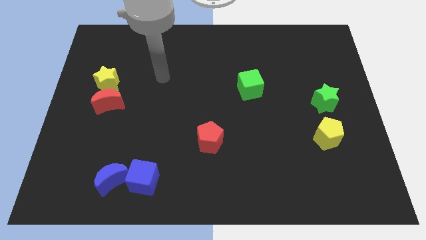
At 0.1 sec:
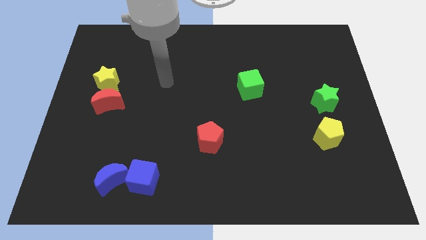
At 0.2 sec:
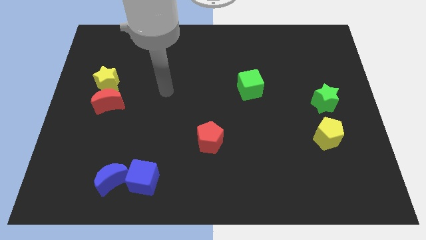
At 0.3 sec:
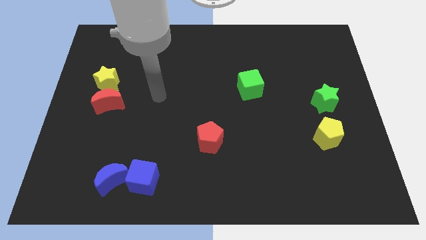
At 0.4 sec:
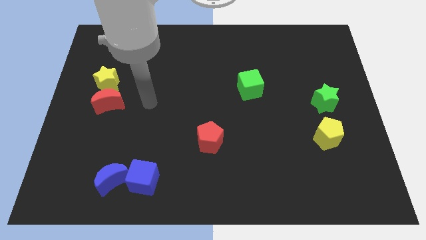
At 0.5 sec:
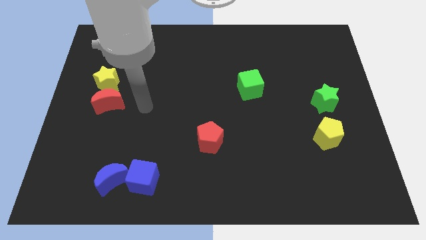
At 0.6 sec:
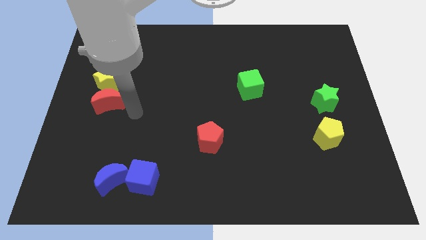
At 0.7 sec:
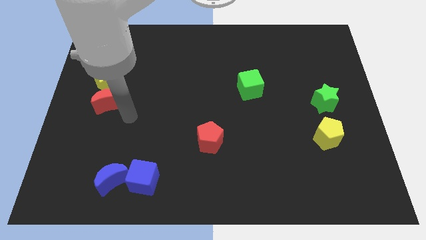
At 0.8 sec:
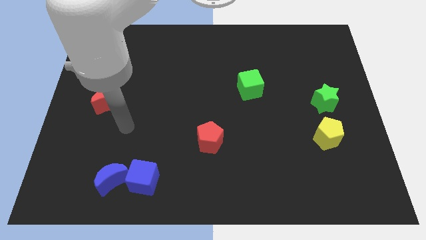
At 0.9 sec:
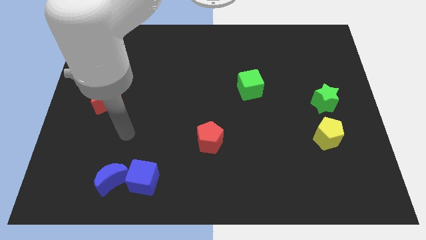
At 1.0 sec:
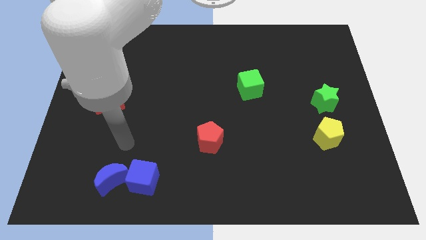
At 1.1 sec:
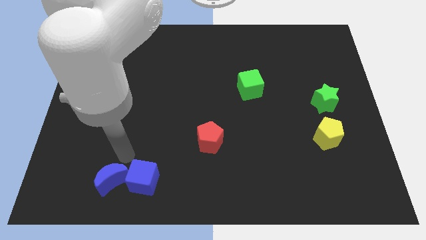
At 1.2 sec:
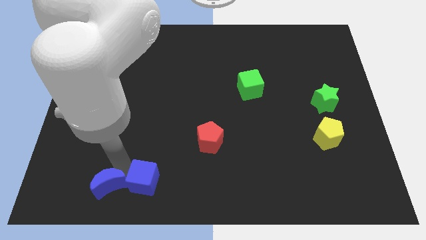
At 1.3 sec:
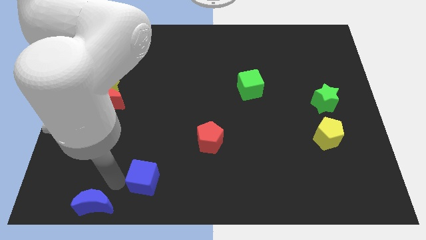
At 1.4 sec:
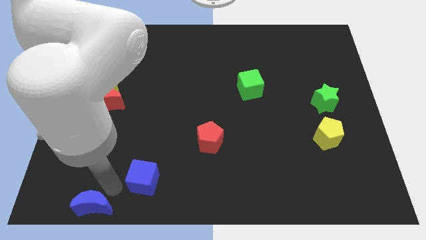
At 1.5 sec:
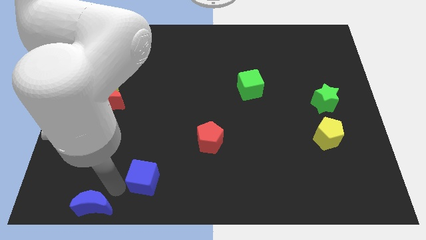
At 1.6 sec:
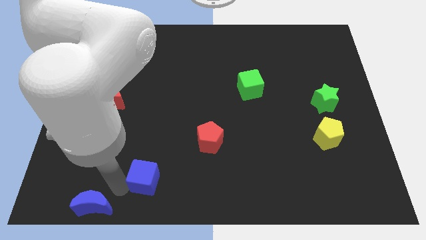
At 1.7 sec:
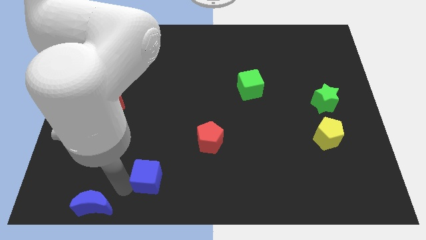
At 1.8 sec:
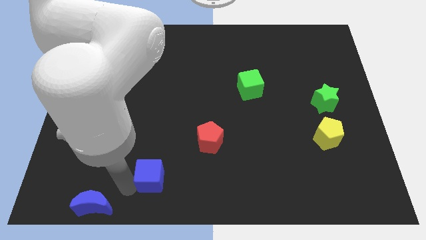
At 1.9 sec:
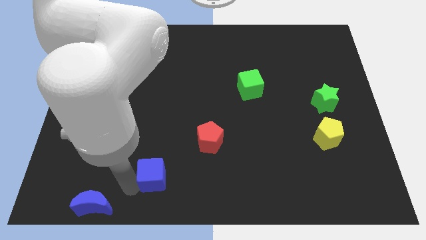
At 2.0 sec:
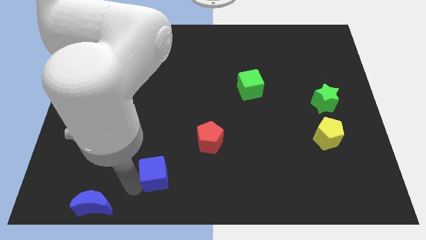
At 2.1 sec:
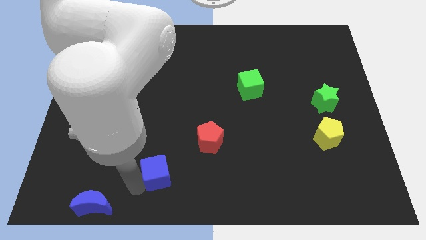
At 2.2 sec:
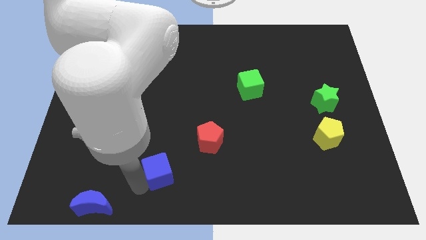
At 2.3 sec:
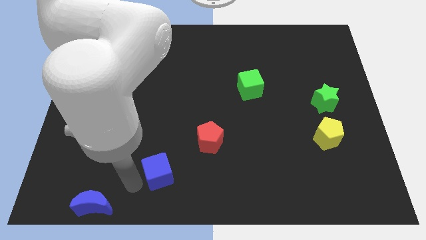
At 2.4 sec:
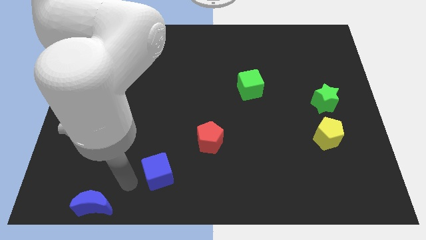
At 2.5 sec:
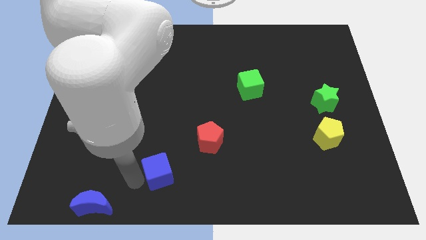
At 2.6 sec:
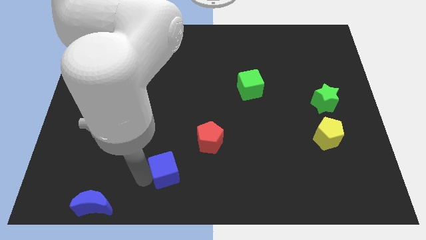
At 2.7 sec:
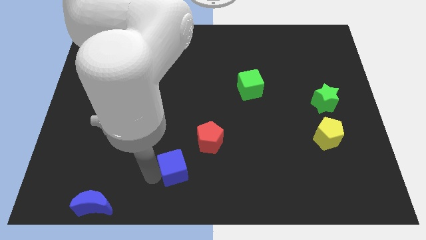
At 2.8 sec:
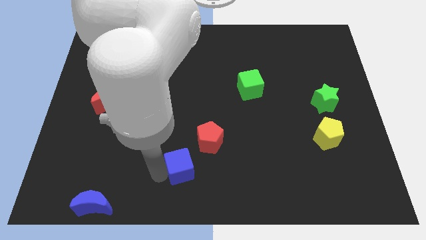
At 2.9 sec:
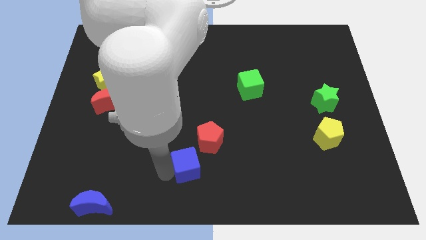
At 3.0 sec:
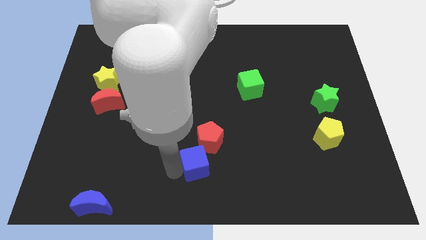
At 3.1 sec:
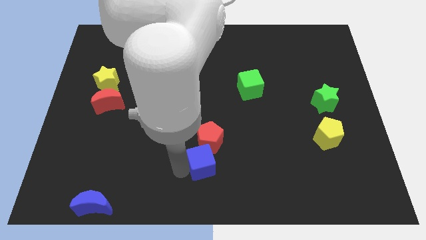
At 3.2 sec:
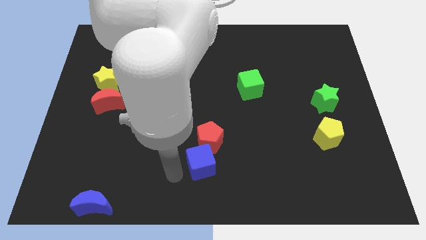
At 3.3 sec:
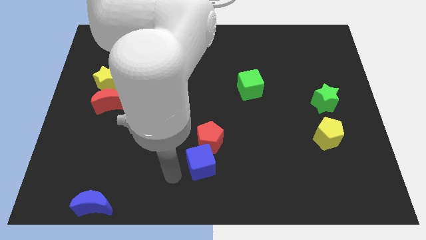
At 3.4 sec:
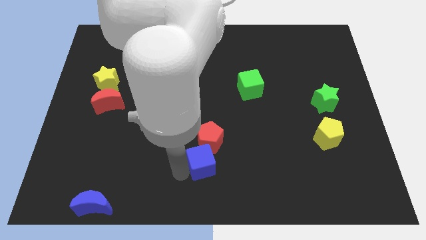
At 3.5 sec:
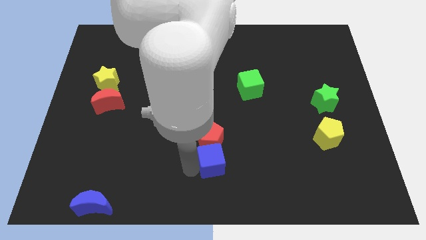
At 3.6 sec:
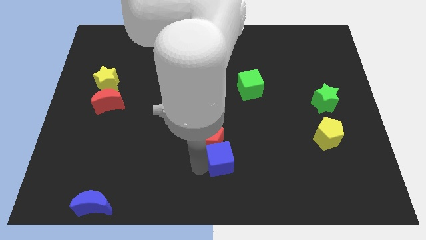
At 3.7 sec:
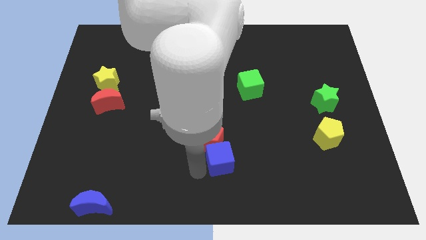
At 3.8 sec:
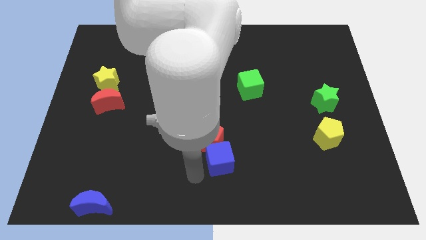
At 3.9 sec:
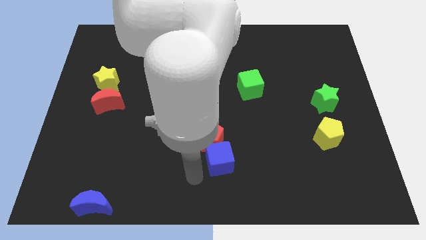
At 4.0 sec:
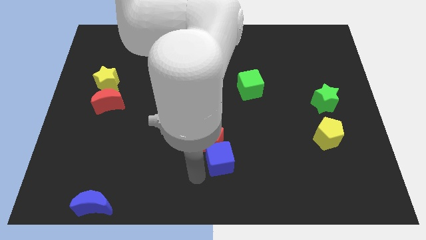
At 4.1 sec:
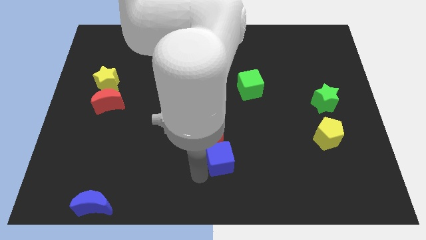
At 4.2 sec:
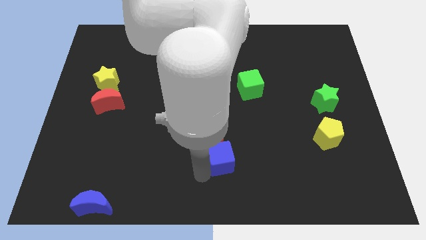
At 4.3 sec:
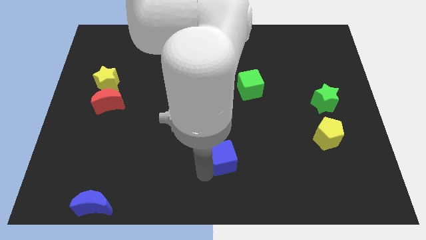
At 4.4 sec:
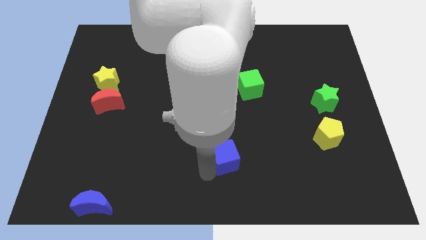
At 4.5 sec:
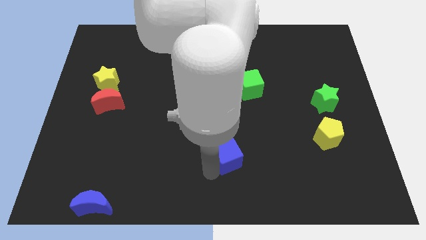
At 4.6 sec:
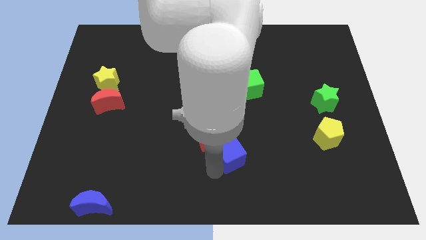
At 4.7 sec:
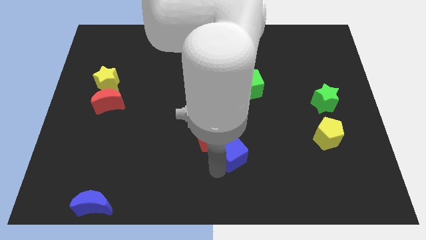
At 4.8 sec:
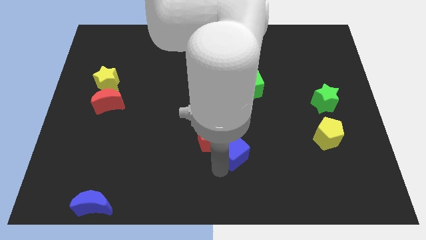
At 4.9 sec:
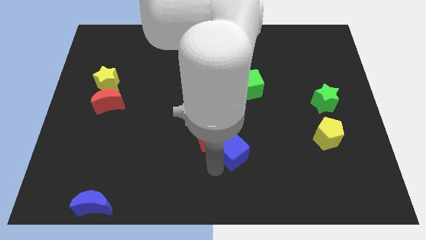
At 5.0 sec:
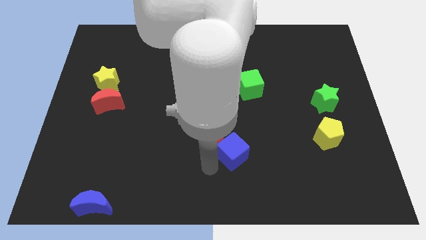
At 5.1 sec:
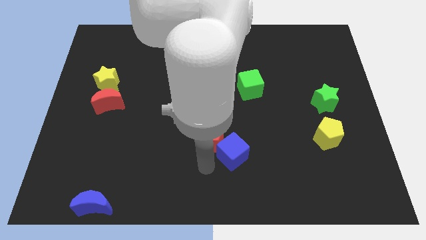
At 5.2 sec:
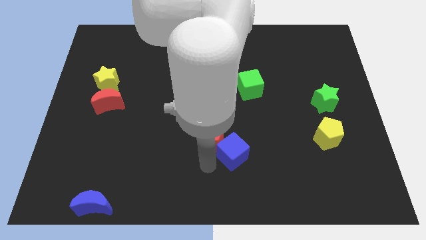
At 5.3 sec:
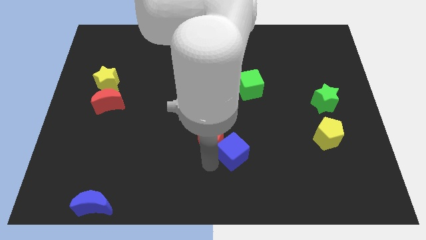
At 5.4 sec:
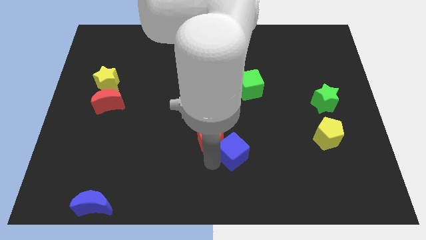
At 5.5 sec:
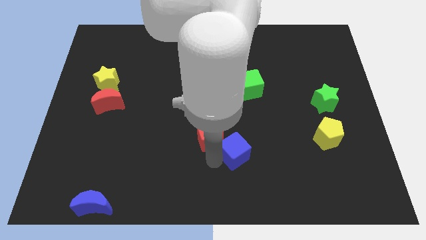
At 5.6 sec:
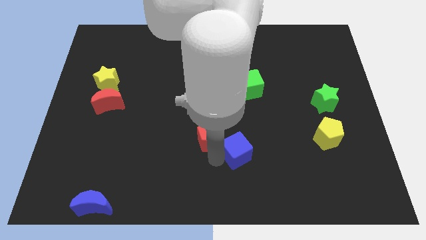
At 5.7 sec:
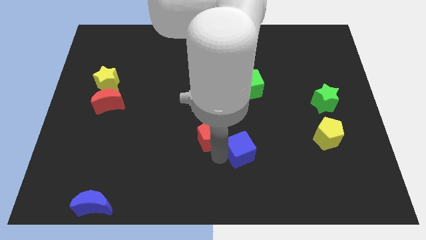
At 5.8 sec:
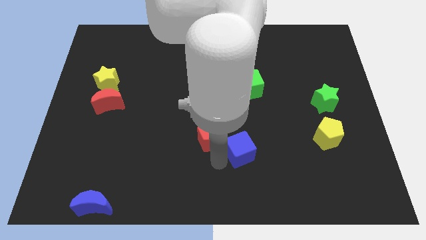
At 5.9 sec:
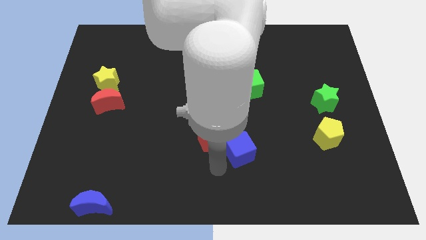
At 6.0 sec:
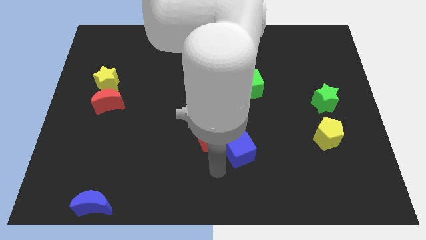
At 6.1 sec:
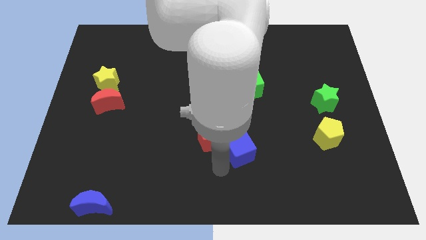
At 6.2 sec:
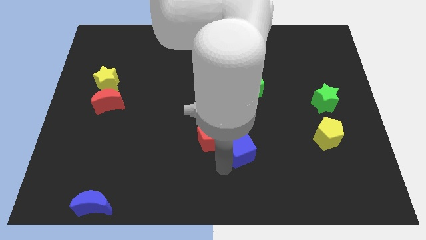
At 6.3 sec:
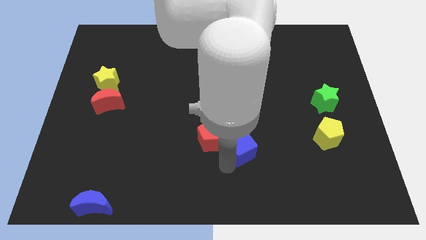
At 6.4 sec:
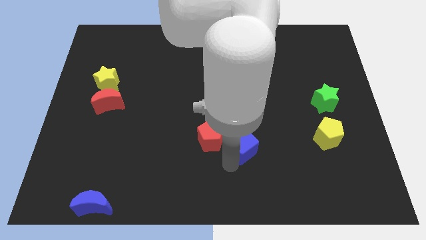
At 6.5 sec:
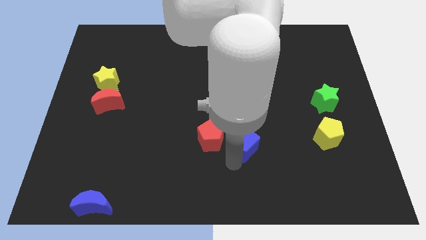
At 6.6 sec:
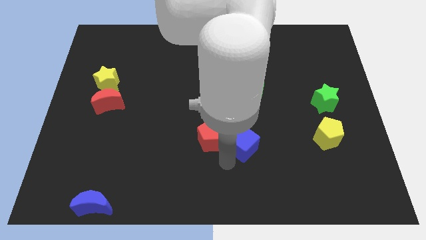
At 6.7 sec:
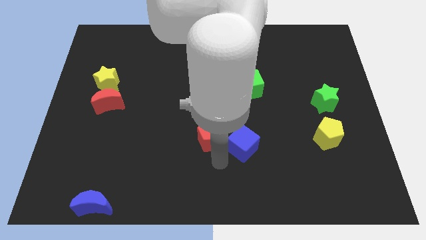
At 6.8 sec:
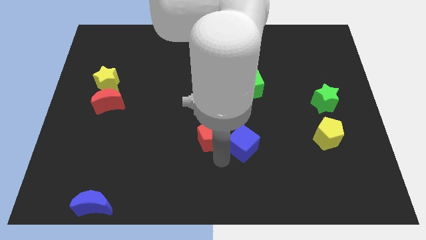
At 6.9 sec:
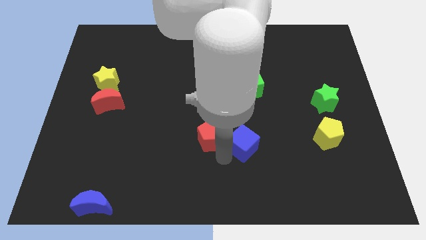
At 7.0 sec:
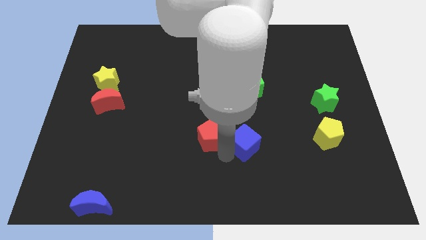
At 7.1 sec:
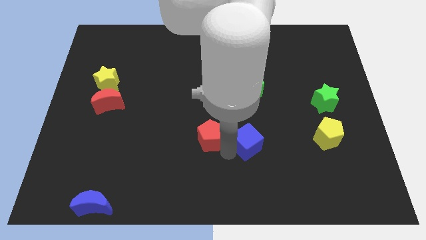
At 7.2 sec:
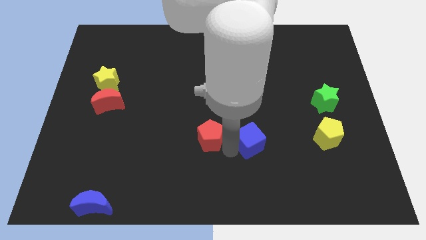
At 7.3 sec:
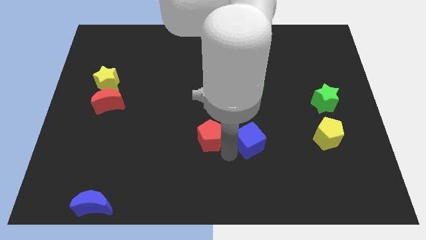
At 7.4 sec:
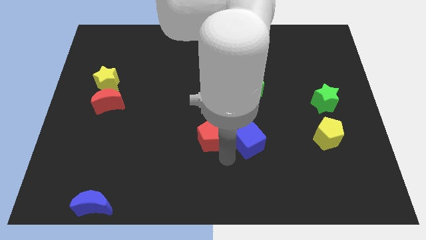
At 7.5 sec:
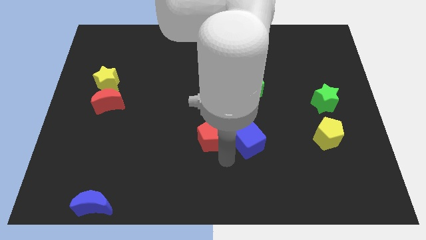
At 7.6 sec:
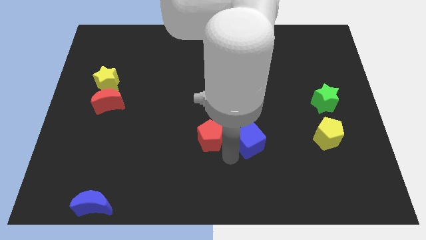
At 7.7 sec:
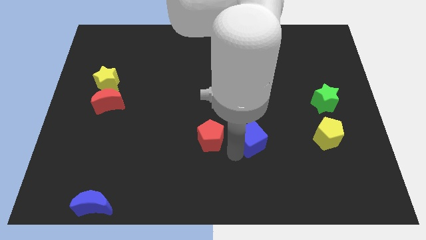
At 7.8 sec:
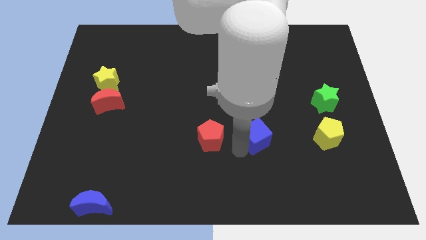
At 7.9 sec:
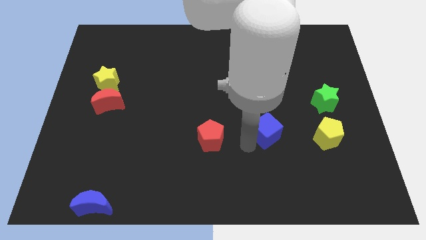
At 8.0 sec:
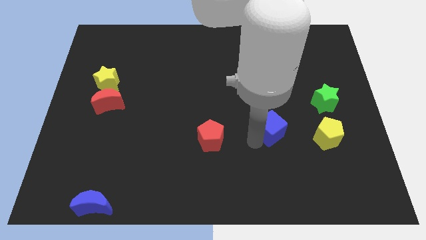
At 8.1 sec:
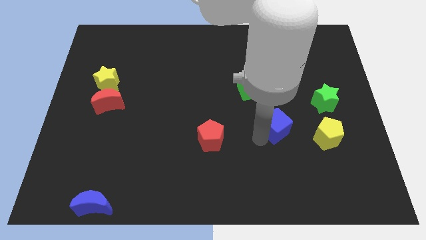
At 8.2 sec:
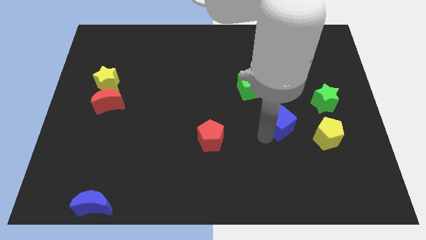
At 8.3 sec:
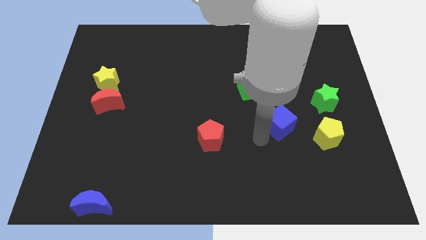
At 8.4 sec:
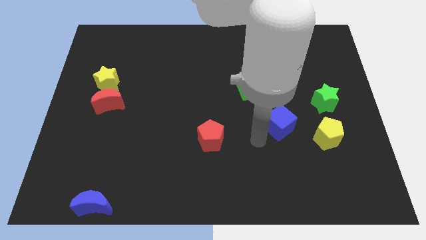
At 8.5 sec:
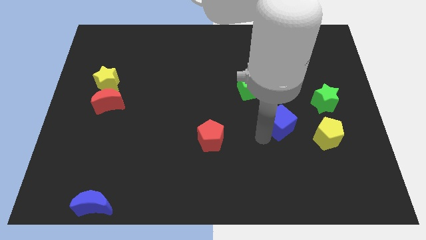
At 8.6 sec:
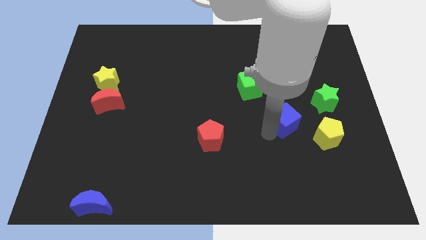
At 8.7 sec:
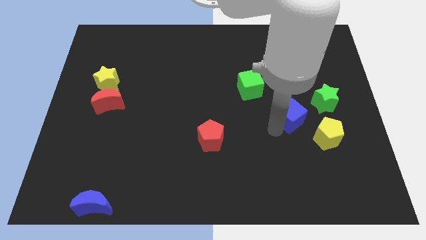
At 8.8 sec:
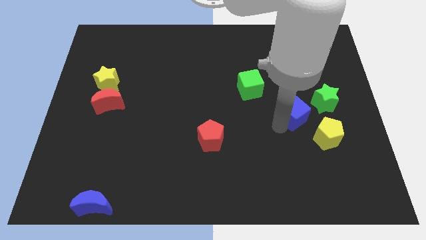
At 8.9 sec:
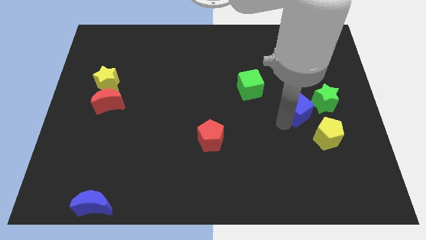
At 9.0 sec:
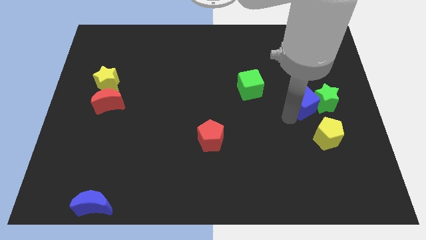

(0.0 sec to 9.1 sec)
put the blue cube towards the green star
